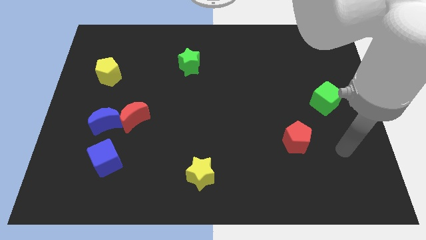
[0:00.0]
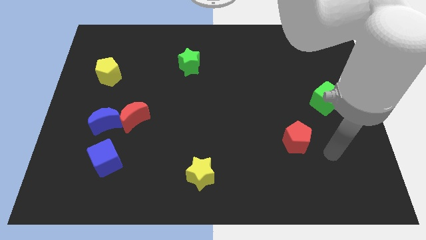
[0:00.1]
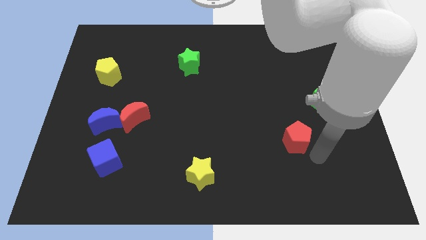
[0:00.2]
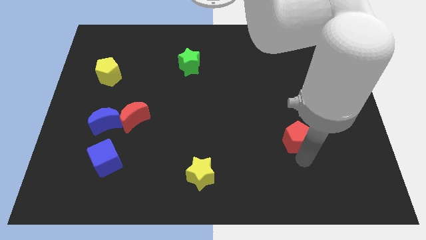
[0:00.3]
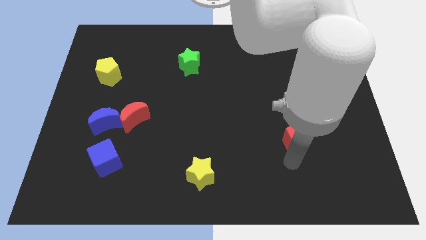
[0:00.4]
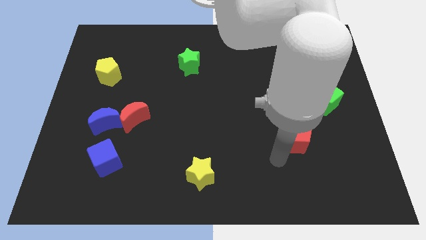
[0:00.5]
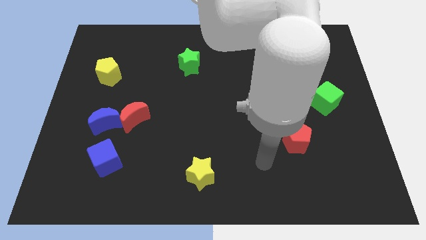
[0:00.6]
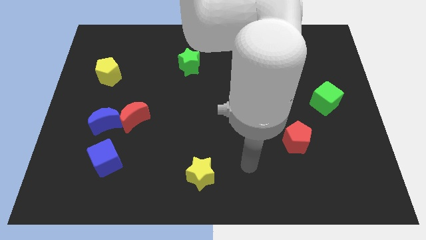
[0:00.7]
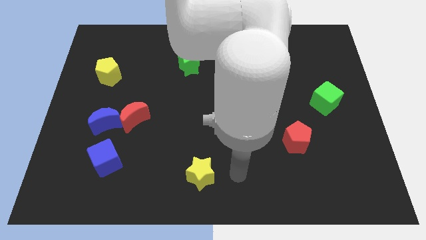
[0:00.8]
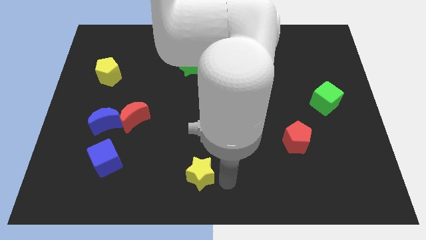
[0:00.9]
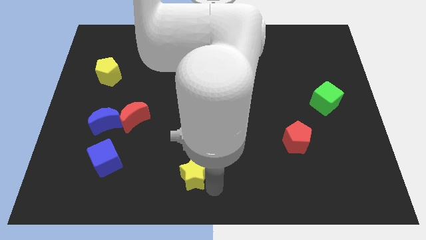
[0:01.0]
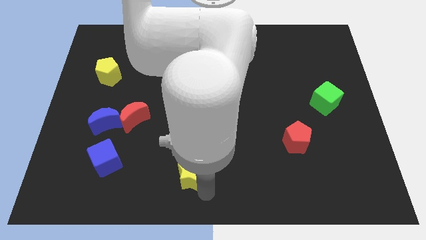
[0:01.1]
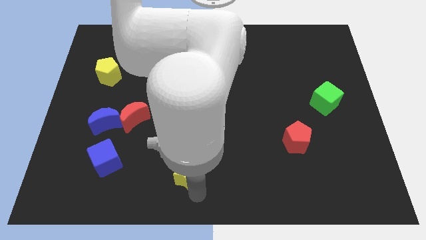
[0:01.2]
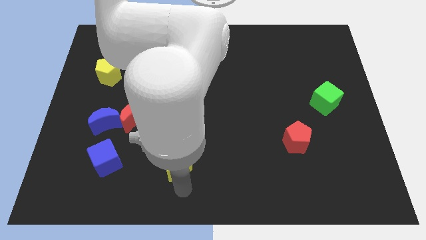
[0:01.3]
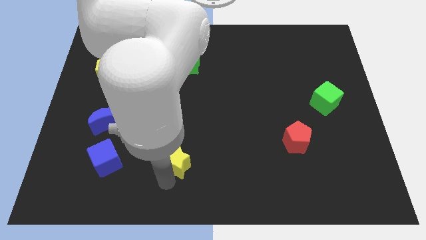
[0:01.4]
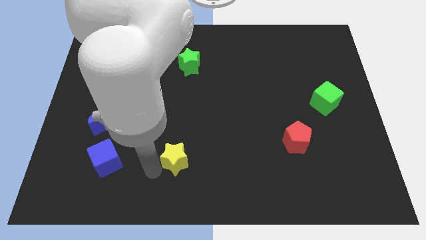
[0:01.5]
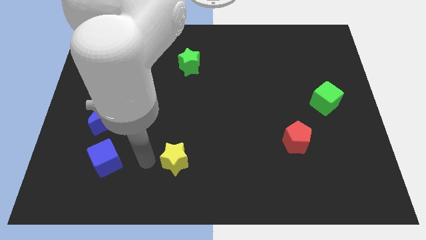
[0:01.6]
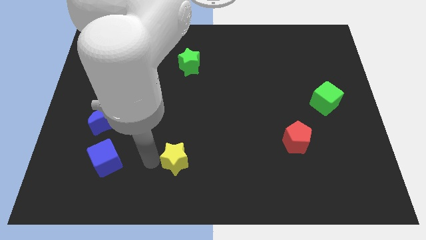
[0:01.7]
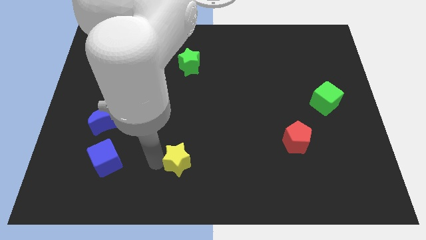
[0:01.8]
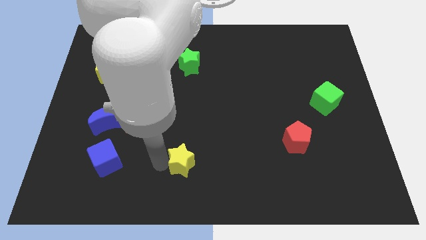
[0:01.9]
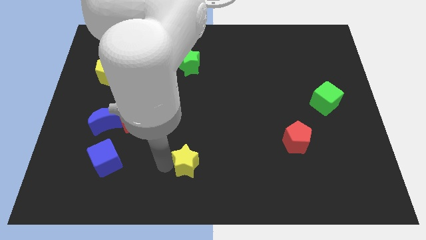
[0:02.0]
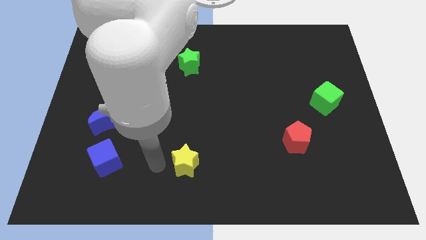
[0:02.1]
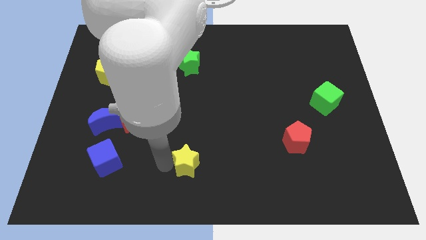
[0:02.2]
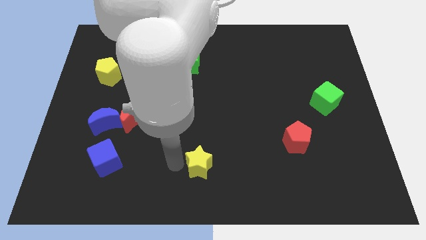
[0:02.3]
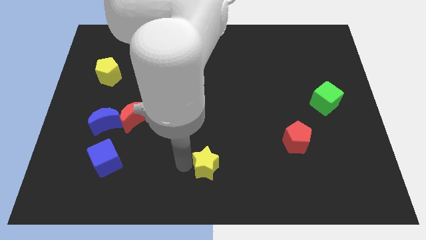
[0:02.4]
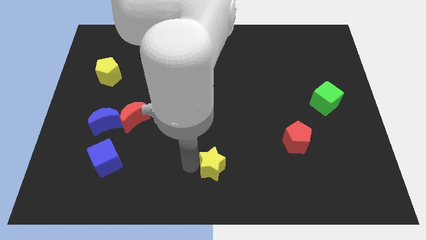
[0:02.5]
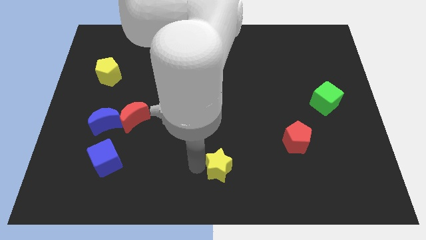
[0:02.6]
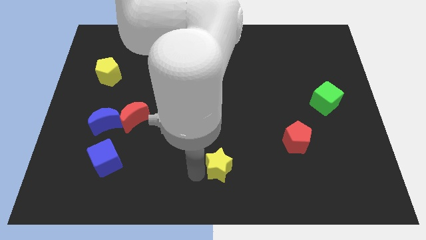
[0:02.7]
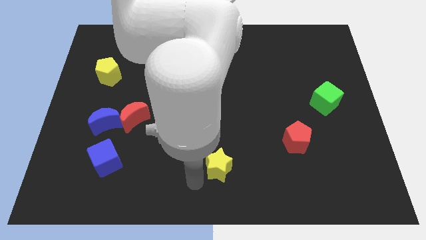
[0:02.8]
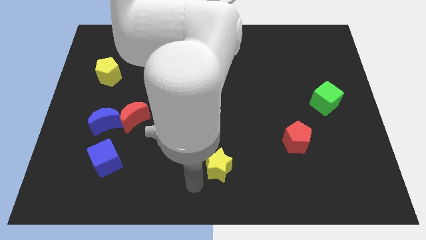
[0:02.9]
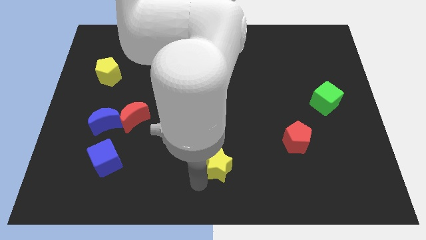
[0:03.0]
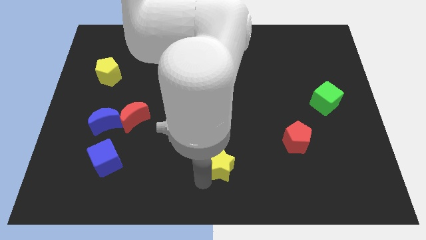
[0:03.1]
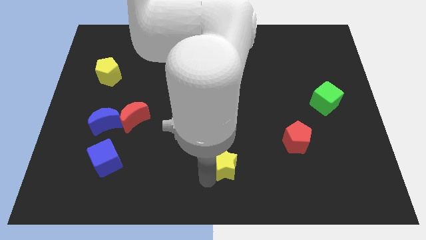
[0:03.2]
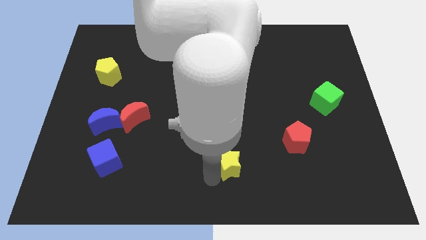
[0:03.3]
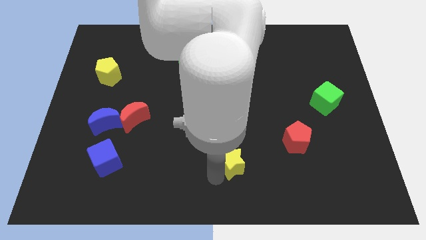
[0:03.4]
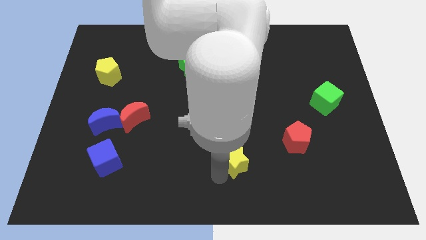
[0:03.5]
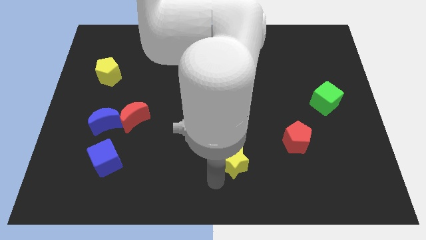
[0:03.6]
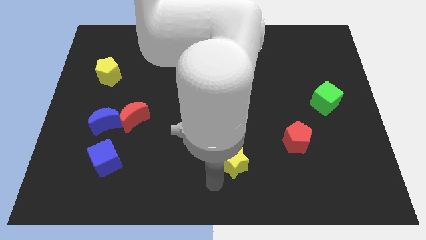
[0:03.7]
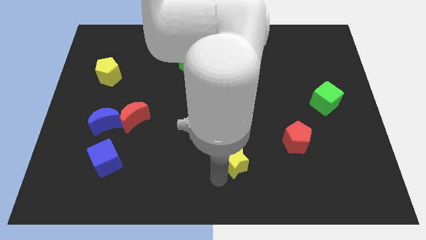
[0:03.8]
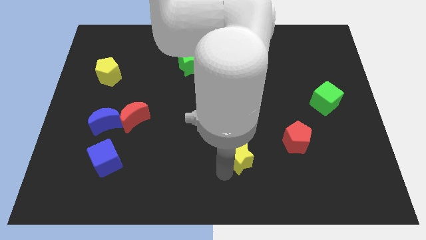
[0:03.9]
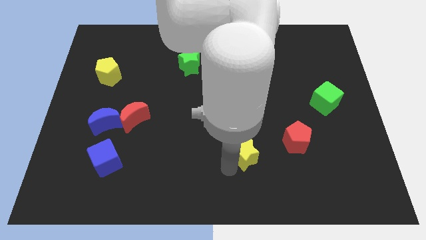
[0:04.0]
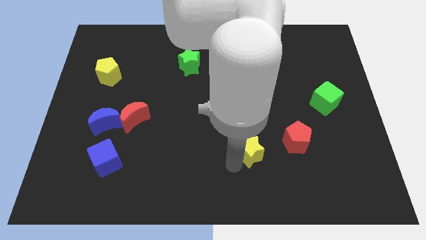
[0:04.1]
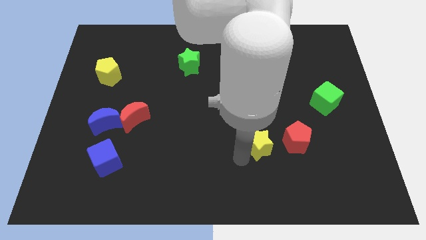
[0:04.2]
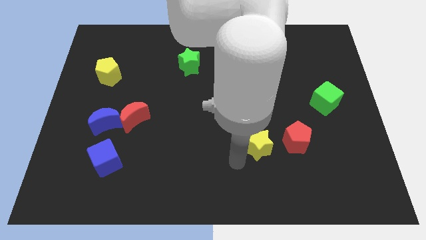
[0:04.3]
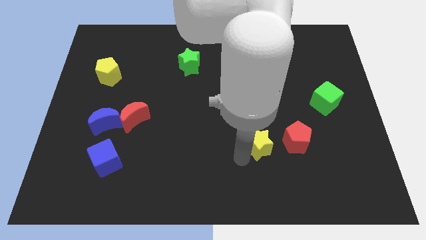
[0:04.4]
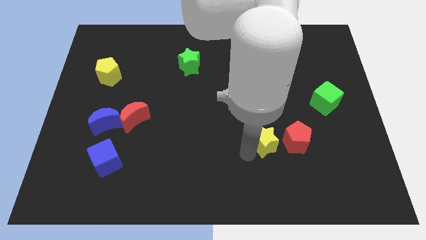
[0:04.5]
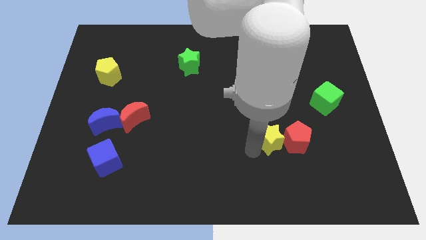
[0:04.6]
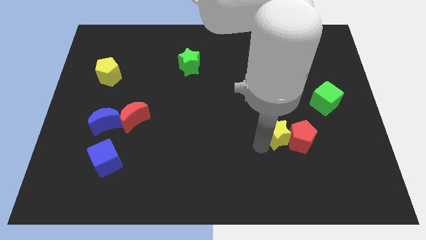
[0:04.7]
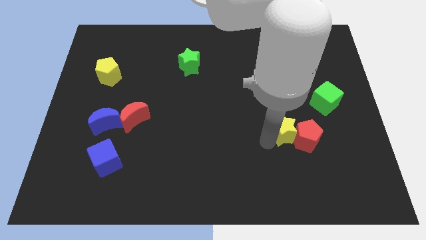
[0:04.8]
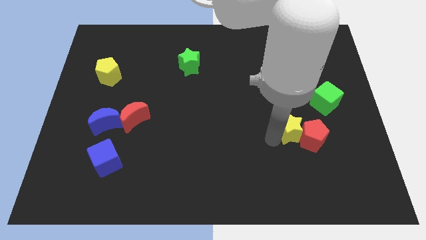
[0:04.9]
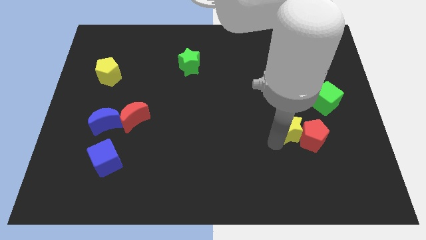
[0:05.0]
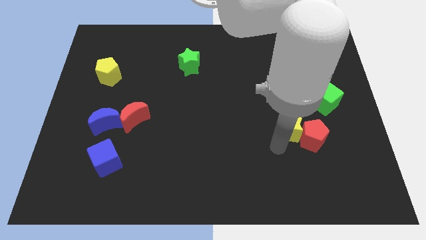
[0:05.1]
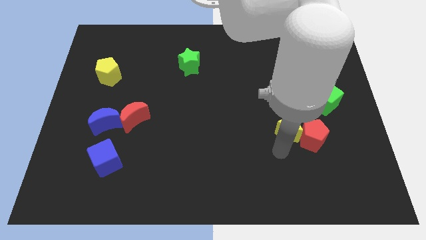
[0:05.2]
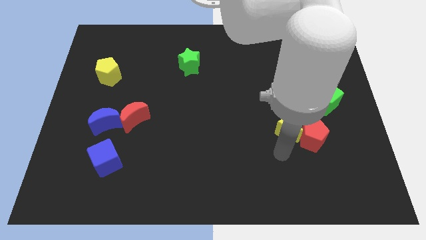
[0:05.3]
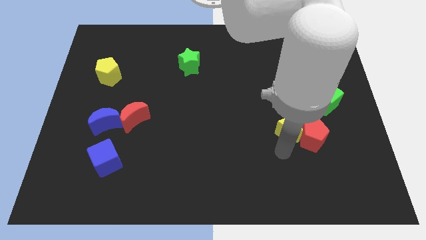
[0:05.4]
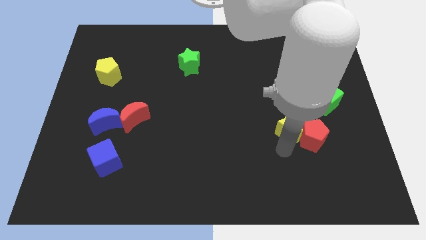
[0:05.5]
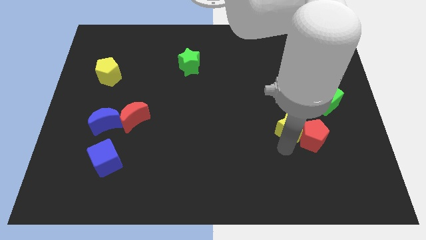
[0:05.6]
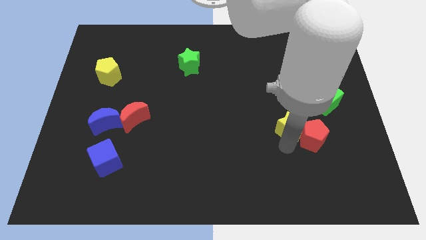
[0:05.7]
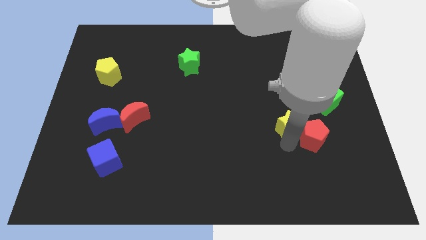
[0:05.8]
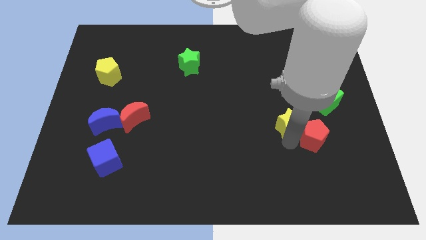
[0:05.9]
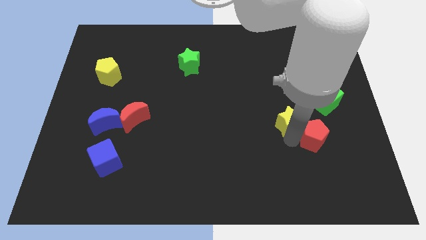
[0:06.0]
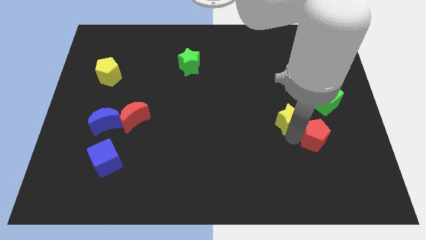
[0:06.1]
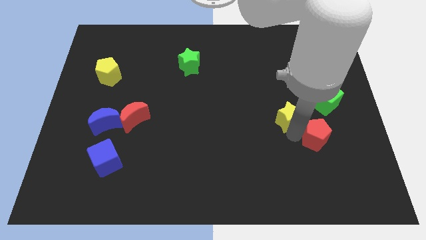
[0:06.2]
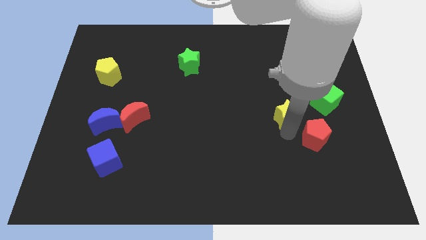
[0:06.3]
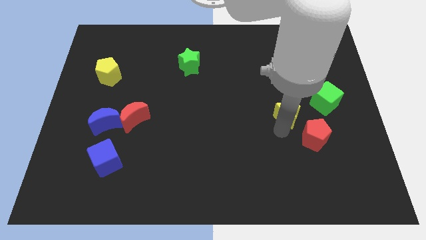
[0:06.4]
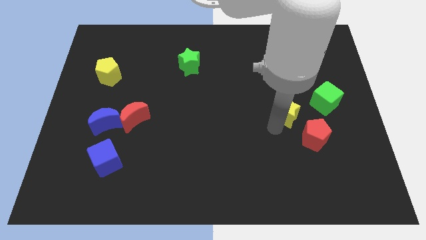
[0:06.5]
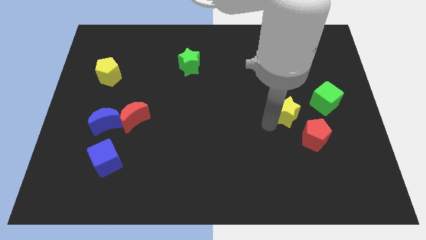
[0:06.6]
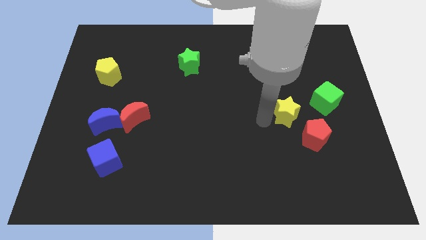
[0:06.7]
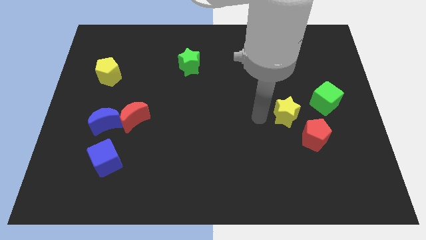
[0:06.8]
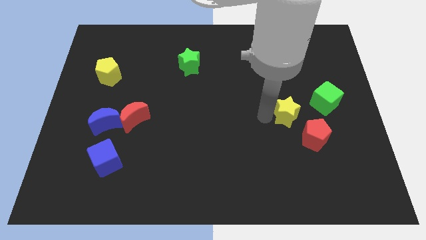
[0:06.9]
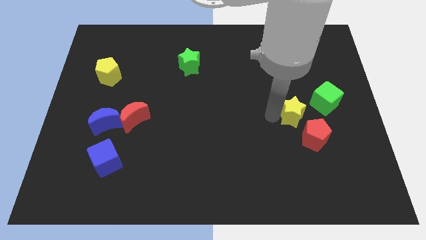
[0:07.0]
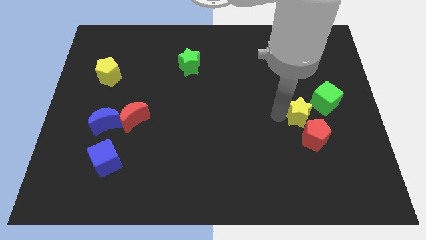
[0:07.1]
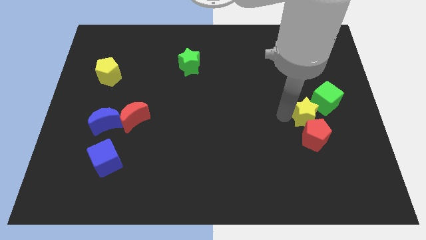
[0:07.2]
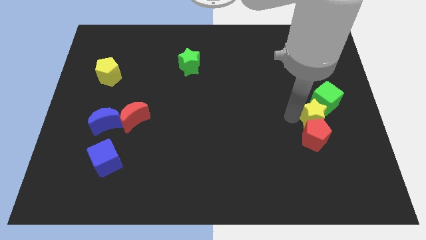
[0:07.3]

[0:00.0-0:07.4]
slide the yellow star next to the green cube
